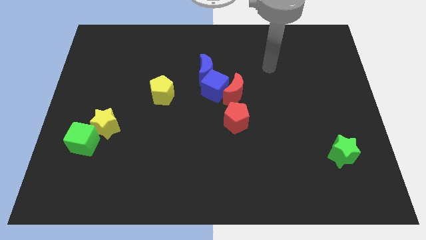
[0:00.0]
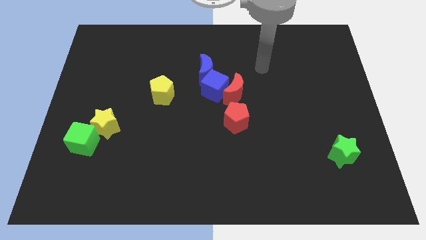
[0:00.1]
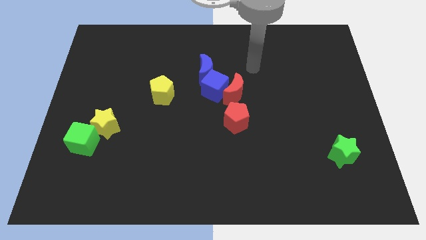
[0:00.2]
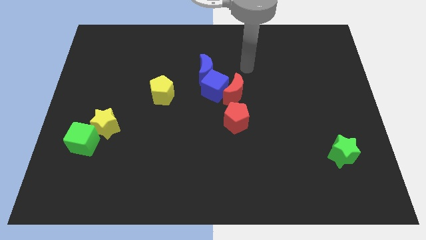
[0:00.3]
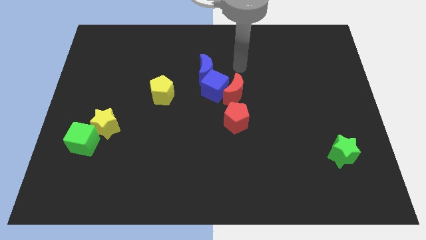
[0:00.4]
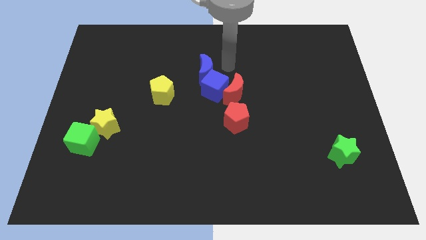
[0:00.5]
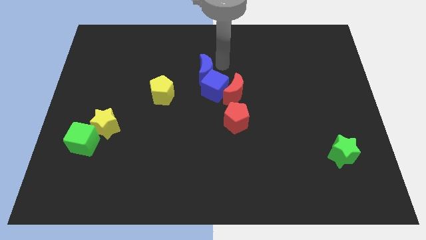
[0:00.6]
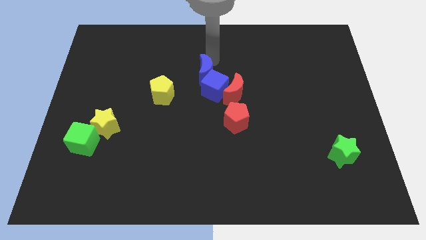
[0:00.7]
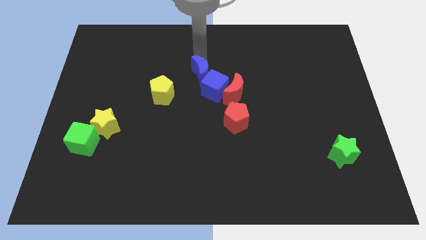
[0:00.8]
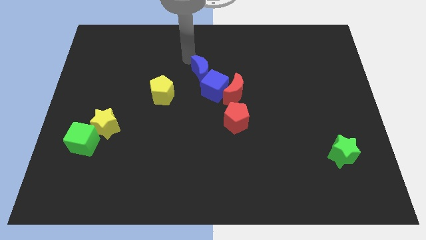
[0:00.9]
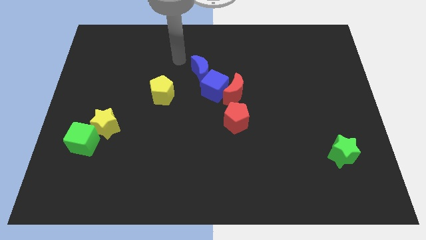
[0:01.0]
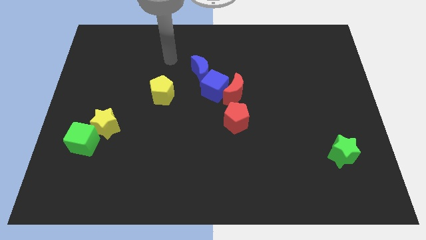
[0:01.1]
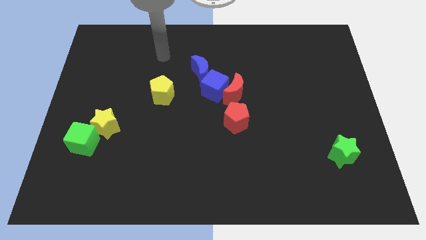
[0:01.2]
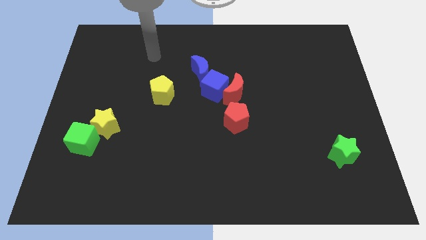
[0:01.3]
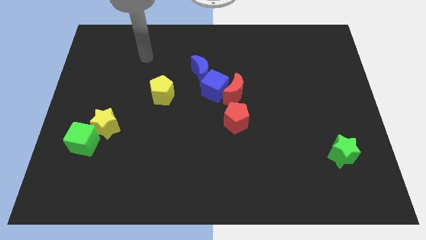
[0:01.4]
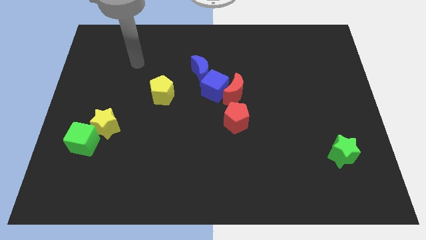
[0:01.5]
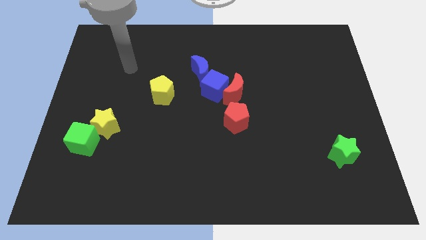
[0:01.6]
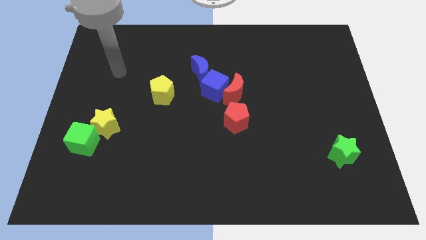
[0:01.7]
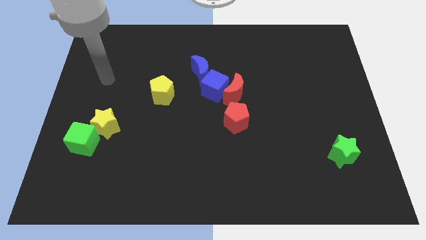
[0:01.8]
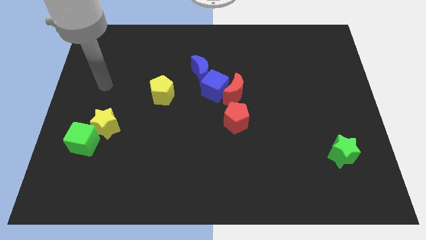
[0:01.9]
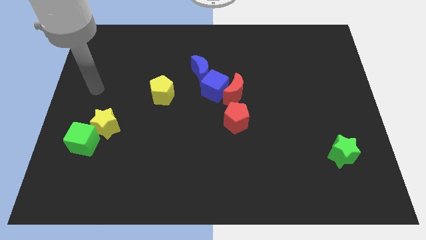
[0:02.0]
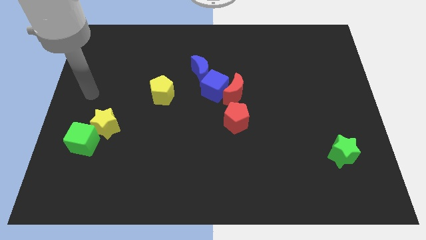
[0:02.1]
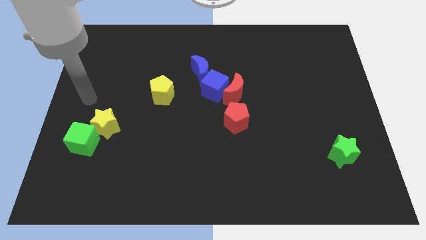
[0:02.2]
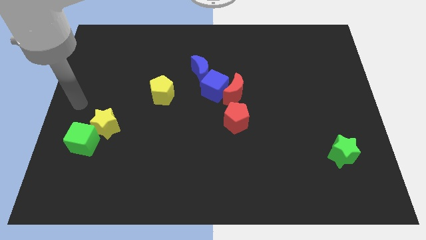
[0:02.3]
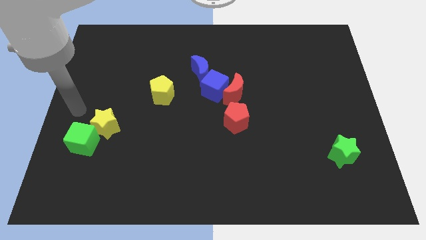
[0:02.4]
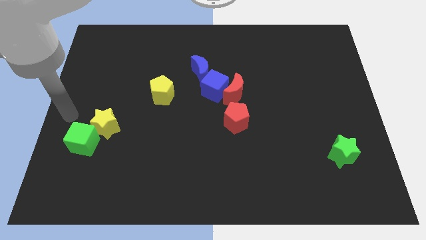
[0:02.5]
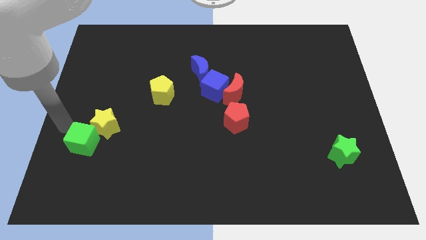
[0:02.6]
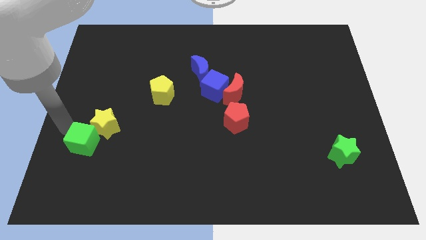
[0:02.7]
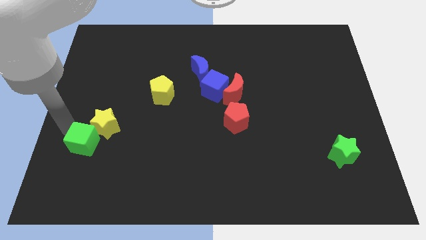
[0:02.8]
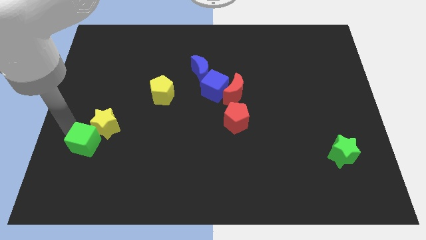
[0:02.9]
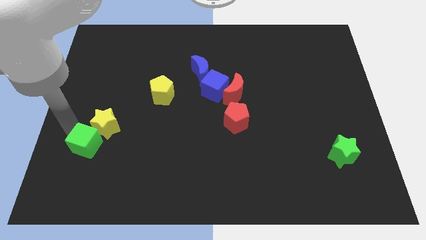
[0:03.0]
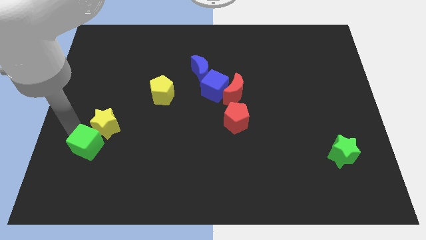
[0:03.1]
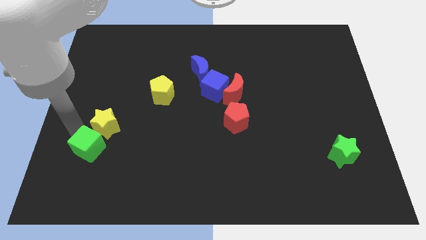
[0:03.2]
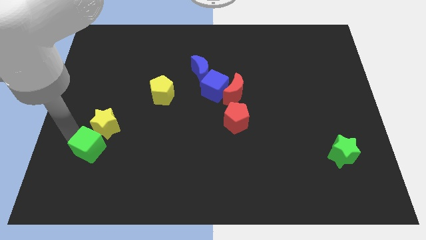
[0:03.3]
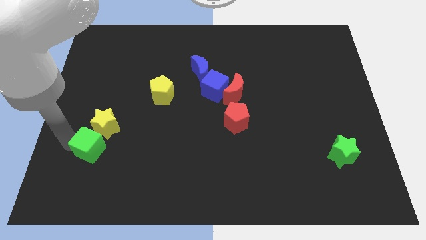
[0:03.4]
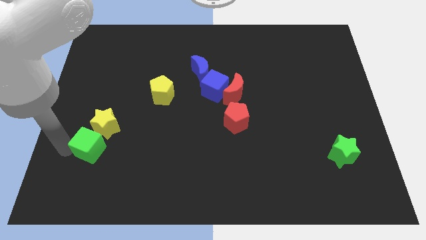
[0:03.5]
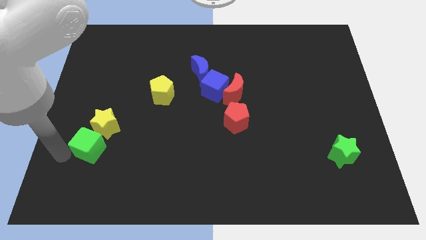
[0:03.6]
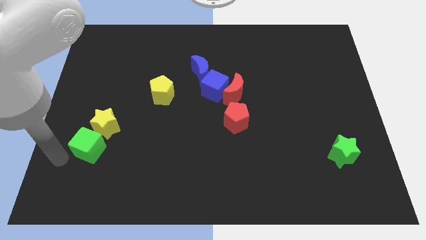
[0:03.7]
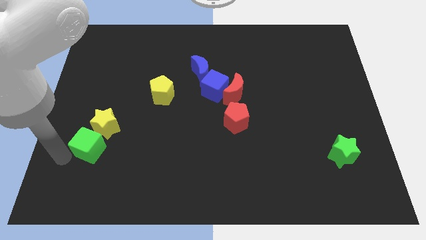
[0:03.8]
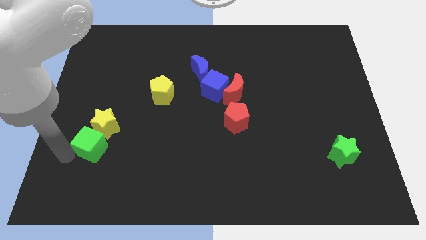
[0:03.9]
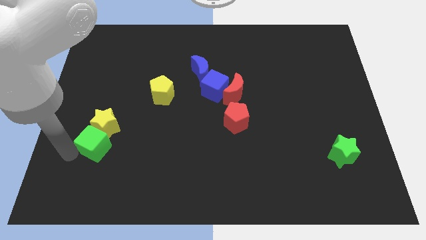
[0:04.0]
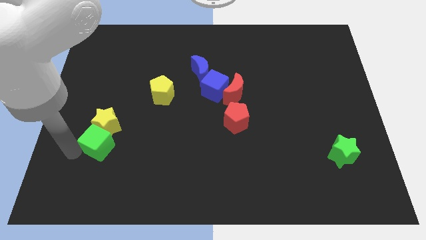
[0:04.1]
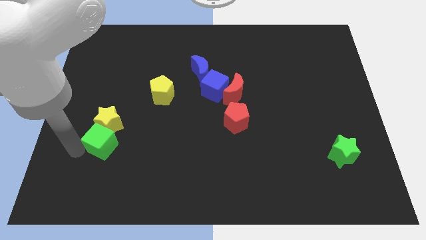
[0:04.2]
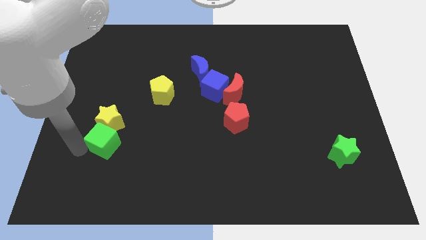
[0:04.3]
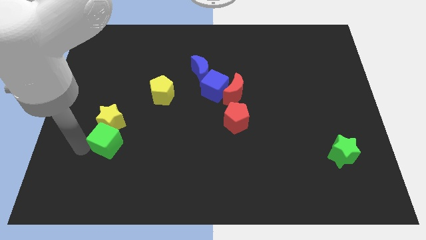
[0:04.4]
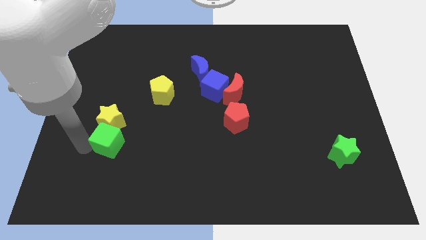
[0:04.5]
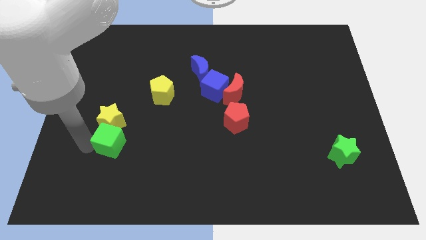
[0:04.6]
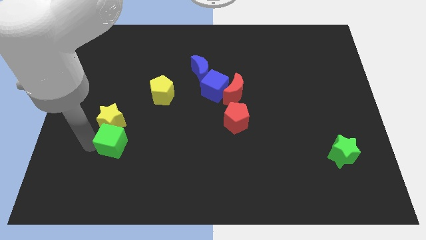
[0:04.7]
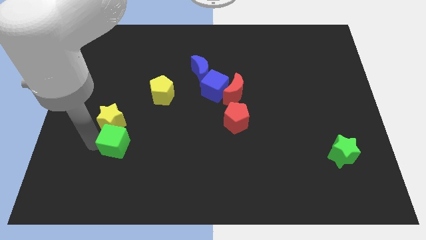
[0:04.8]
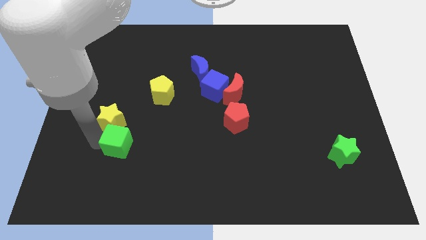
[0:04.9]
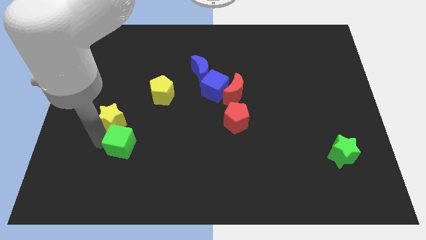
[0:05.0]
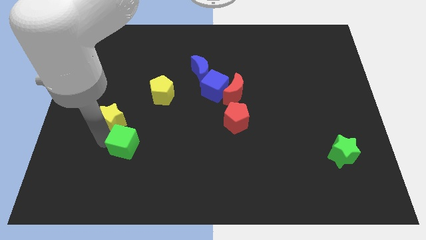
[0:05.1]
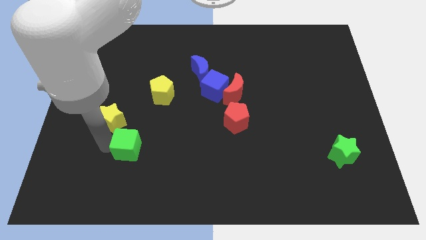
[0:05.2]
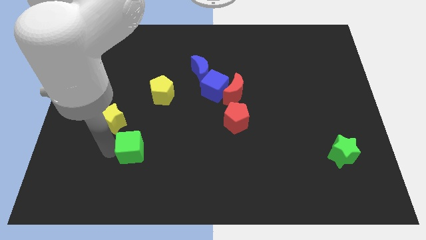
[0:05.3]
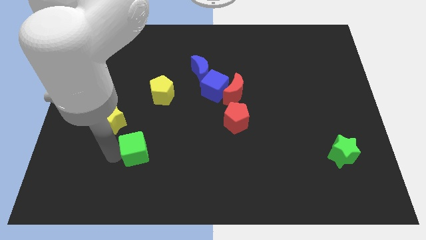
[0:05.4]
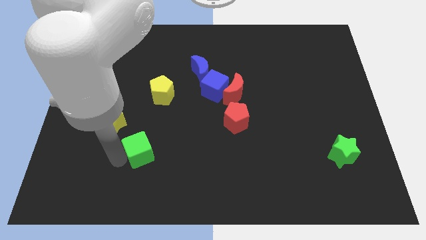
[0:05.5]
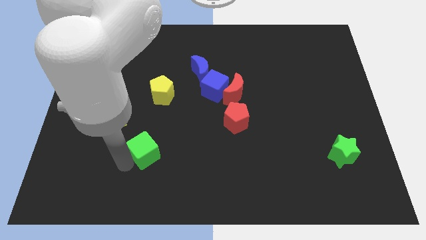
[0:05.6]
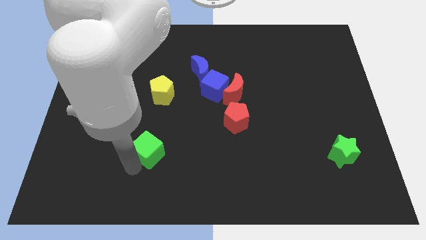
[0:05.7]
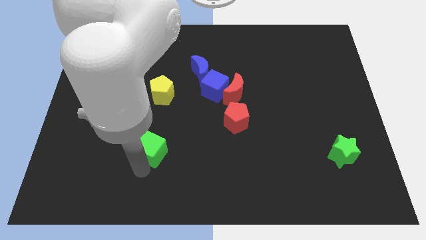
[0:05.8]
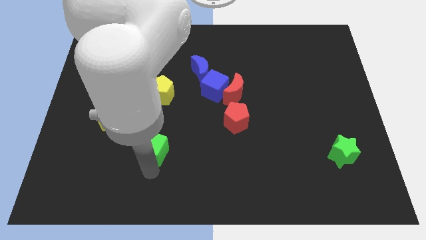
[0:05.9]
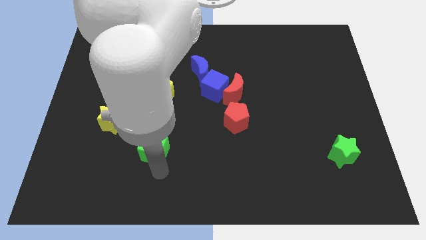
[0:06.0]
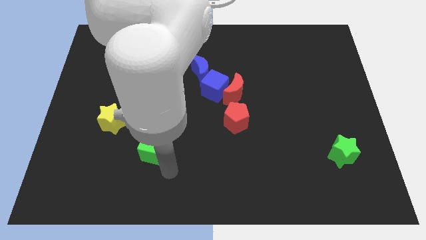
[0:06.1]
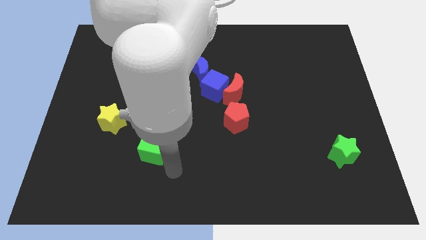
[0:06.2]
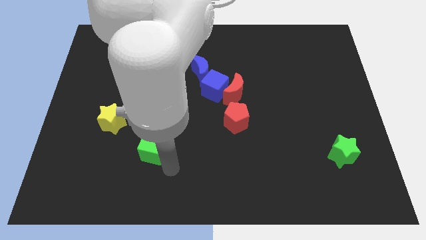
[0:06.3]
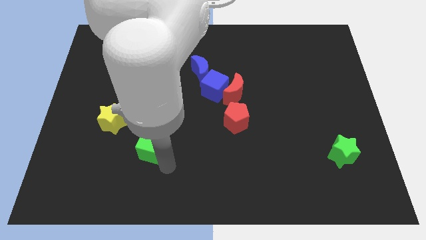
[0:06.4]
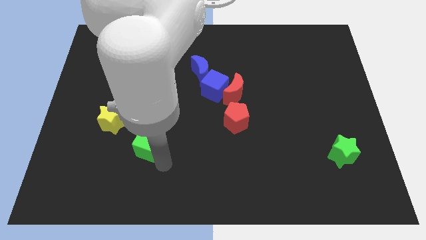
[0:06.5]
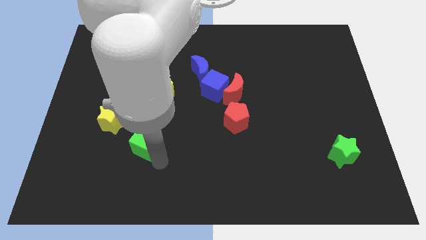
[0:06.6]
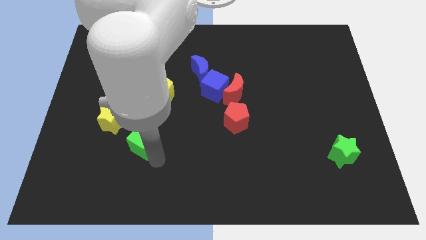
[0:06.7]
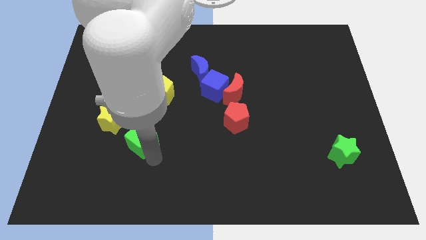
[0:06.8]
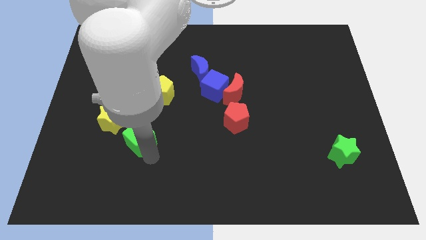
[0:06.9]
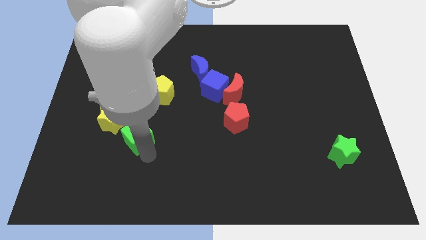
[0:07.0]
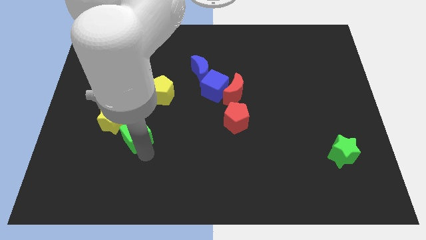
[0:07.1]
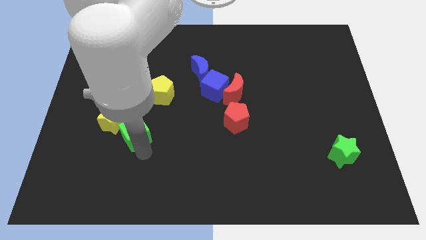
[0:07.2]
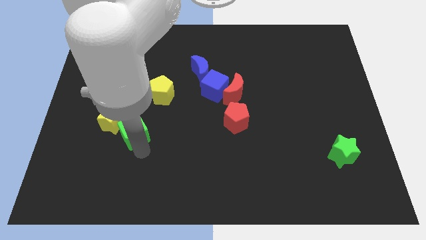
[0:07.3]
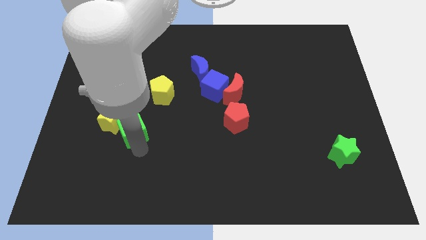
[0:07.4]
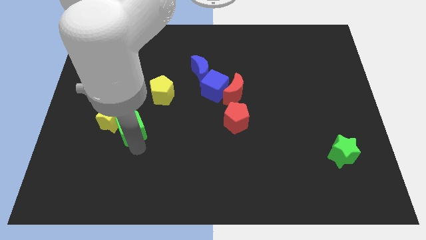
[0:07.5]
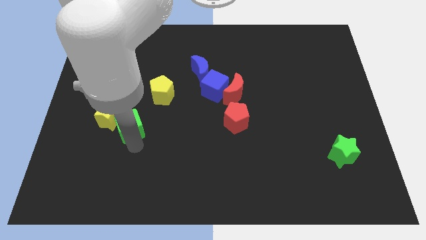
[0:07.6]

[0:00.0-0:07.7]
push the green cube to the bottom left of the yellow pentagon
